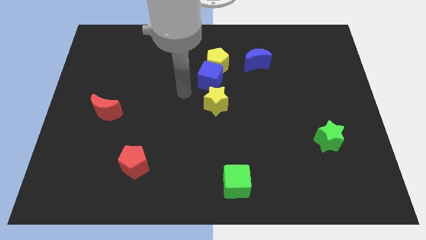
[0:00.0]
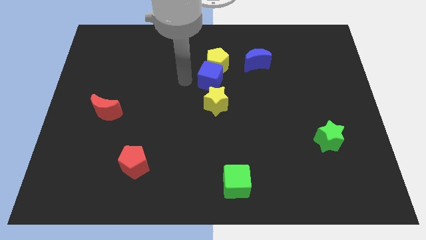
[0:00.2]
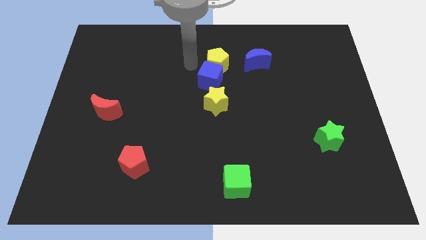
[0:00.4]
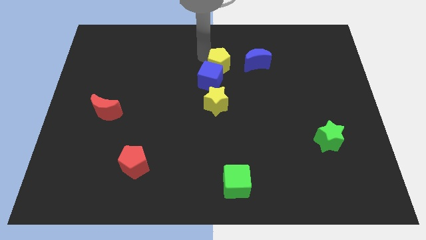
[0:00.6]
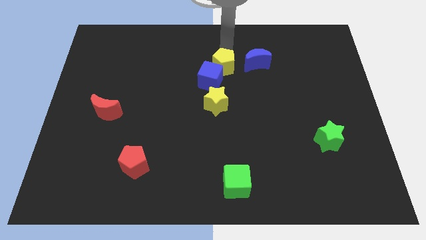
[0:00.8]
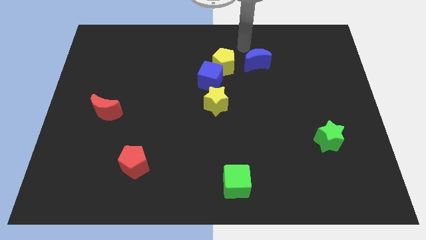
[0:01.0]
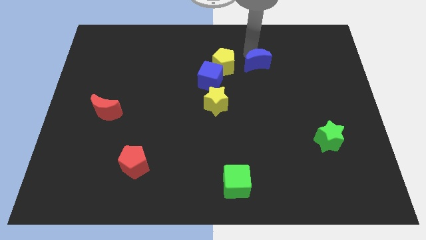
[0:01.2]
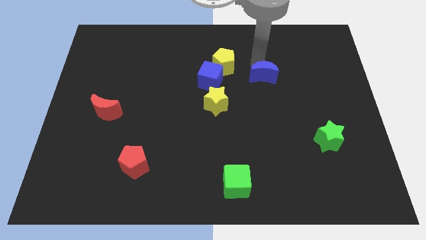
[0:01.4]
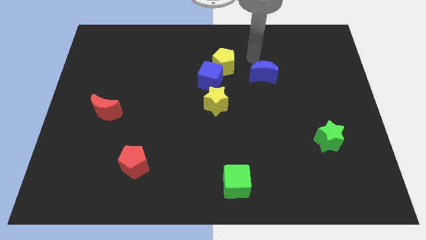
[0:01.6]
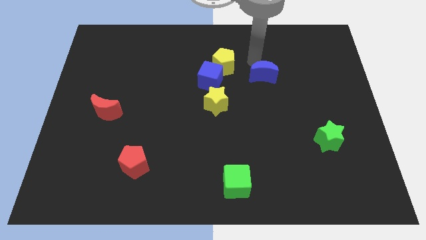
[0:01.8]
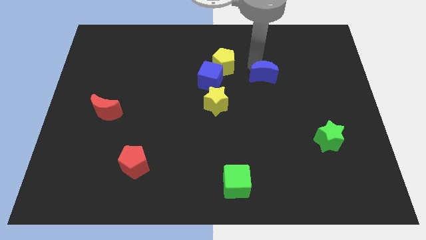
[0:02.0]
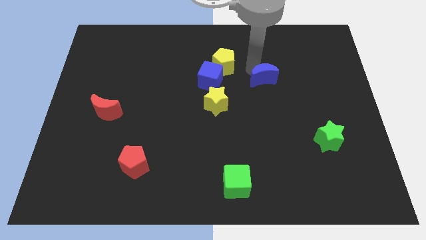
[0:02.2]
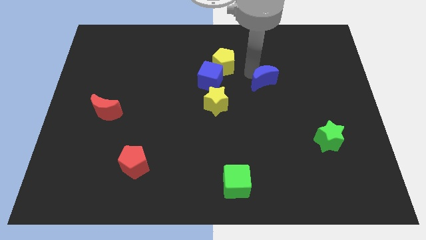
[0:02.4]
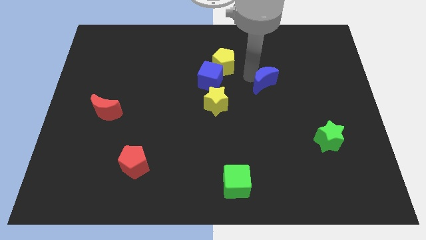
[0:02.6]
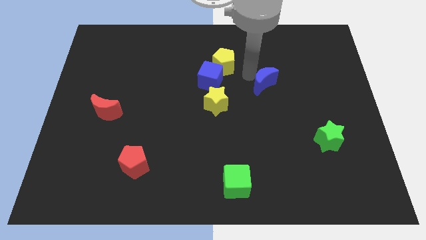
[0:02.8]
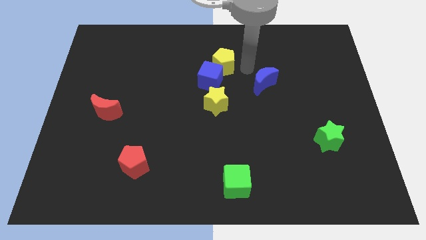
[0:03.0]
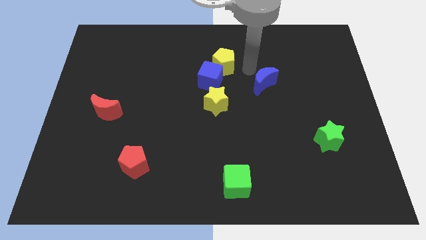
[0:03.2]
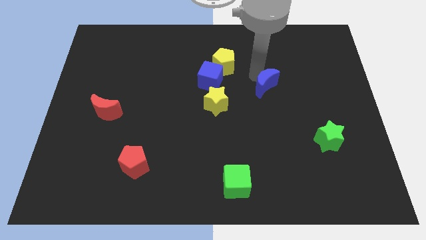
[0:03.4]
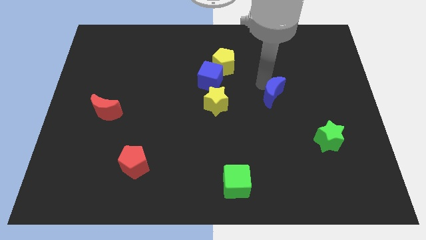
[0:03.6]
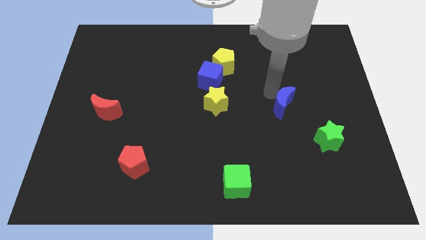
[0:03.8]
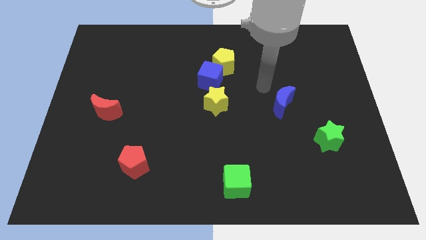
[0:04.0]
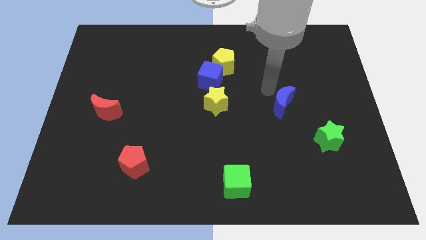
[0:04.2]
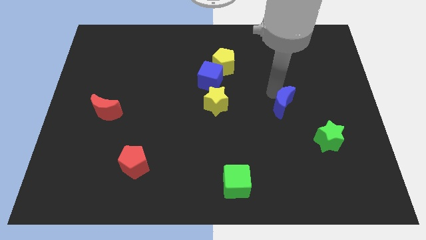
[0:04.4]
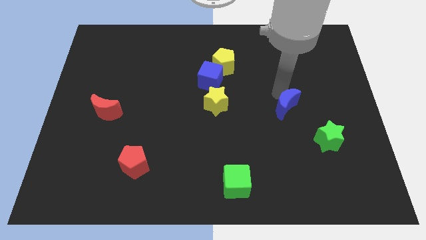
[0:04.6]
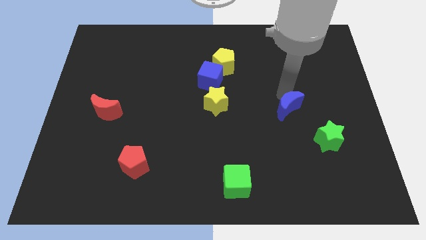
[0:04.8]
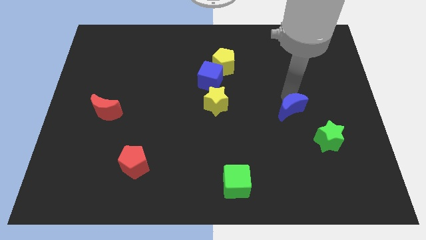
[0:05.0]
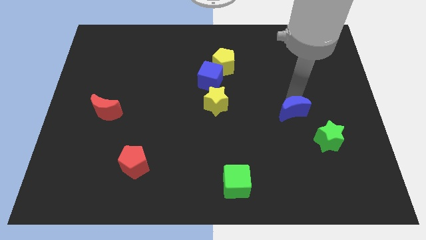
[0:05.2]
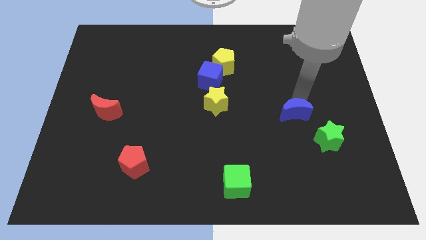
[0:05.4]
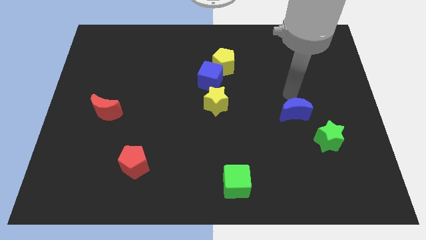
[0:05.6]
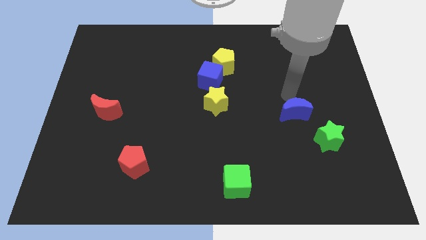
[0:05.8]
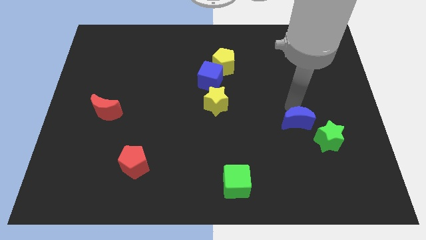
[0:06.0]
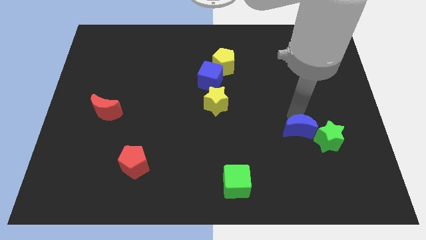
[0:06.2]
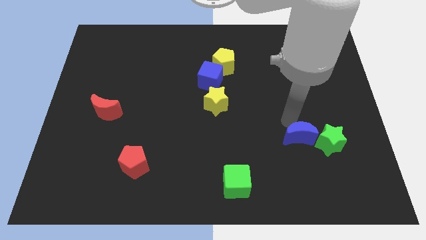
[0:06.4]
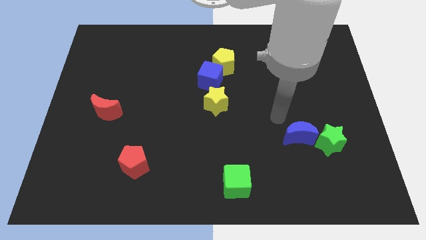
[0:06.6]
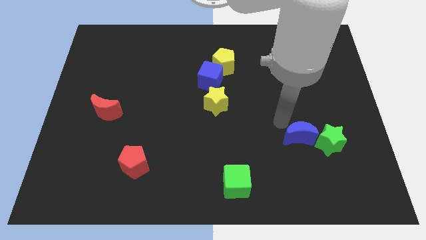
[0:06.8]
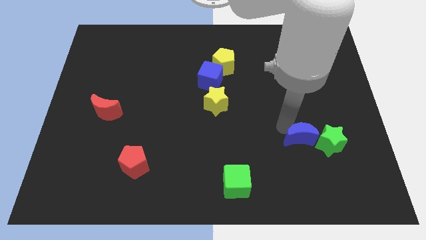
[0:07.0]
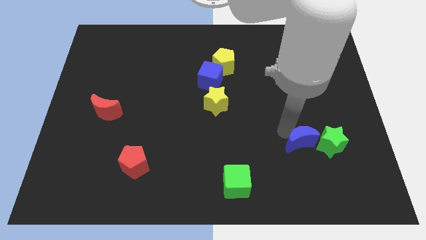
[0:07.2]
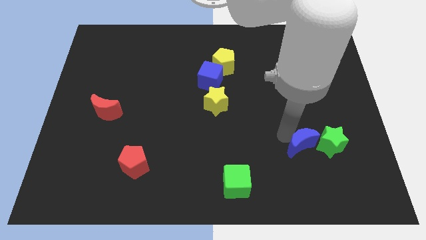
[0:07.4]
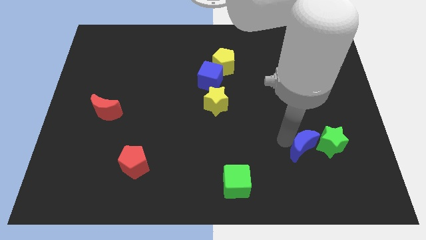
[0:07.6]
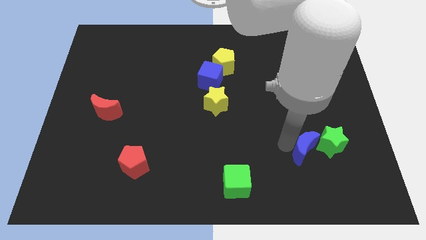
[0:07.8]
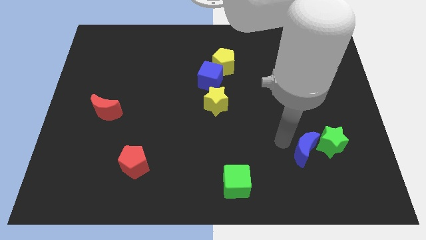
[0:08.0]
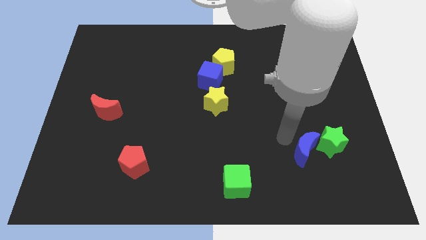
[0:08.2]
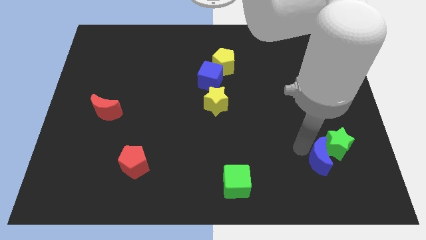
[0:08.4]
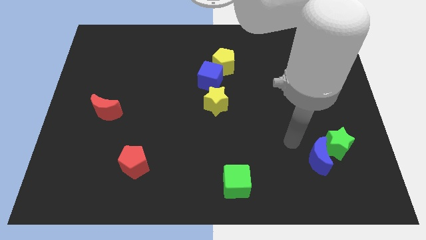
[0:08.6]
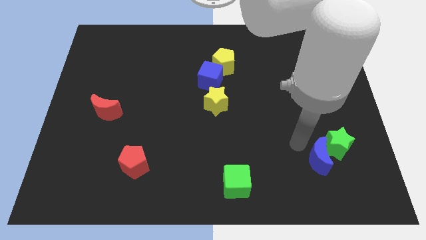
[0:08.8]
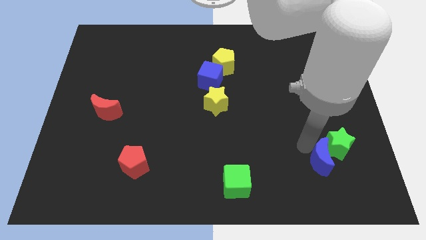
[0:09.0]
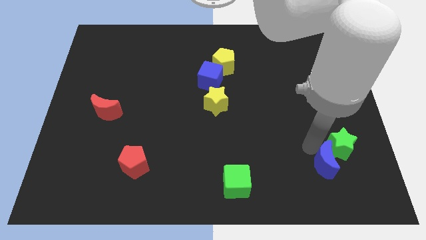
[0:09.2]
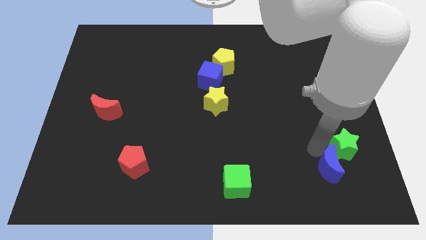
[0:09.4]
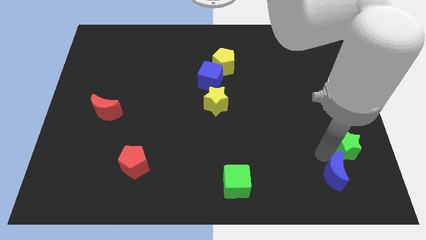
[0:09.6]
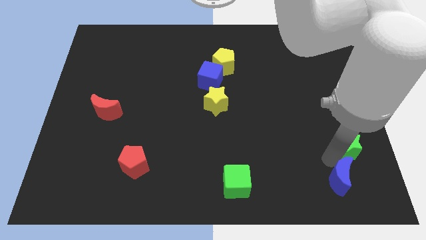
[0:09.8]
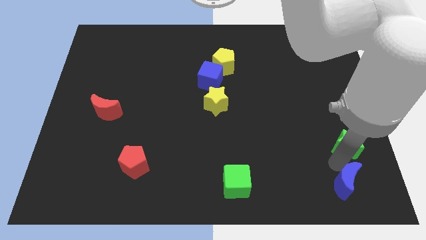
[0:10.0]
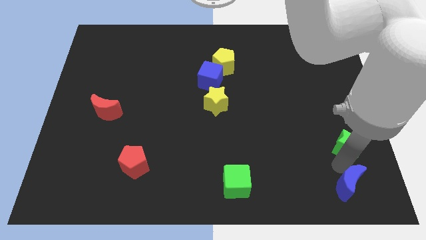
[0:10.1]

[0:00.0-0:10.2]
slide the blue moon to the bottom right of the board

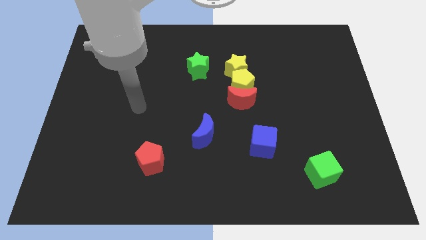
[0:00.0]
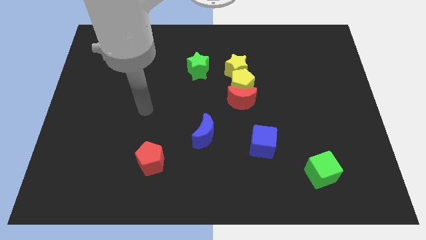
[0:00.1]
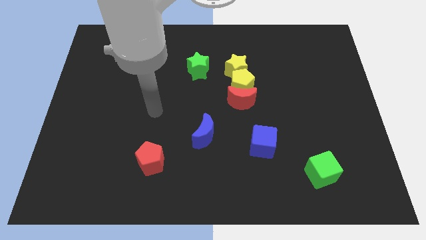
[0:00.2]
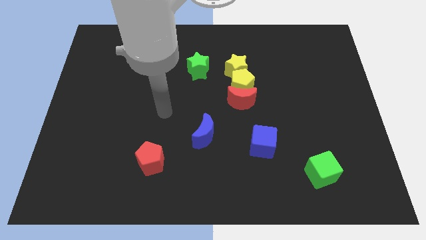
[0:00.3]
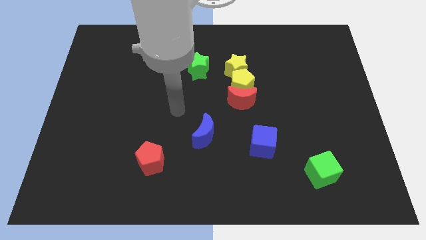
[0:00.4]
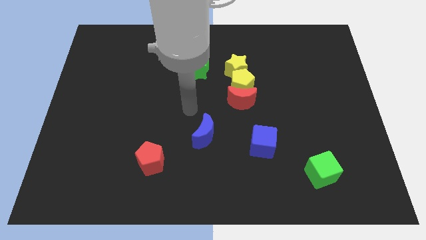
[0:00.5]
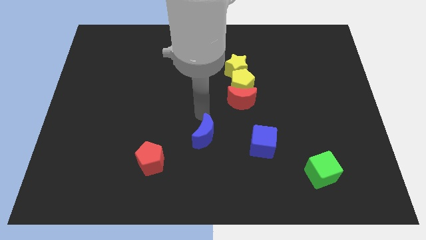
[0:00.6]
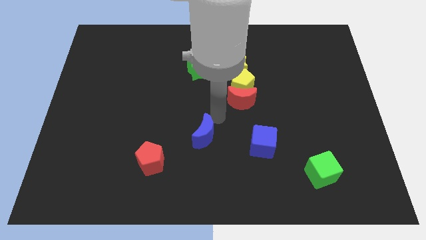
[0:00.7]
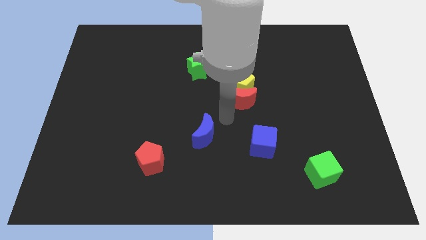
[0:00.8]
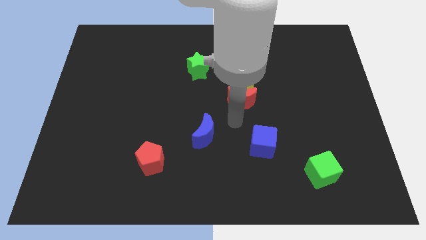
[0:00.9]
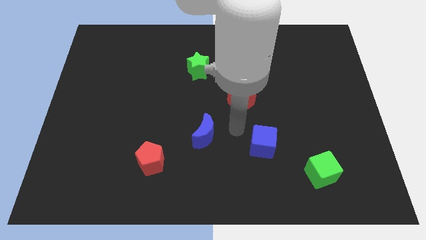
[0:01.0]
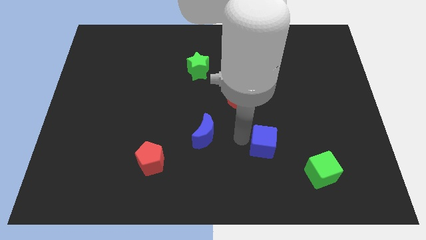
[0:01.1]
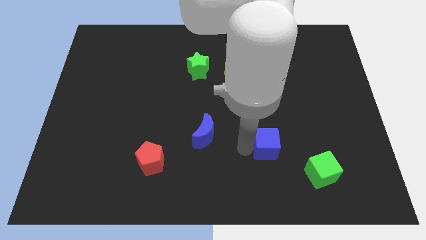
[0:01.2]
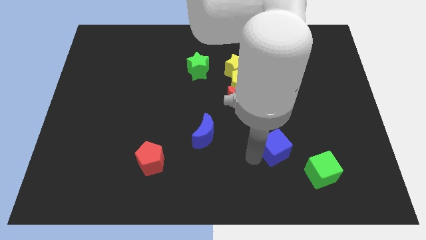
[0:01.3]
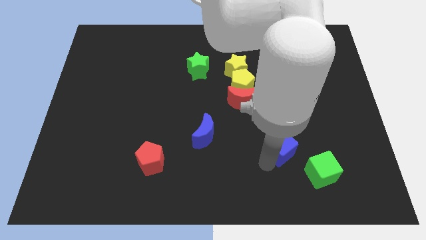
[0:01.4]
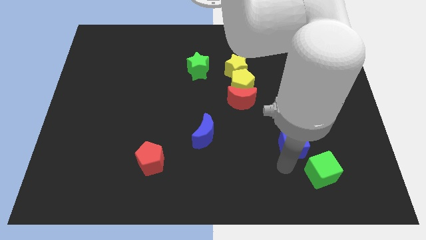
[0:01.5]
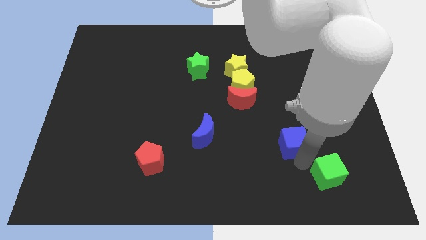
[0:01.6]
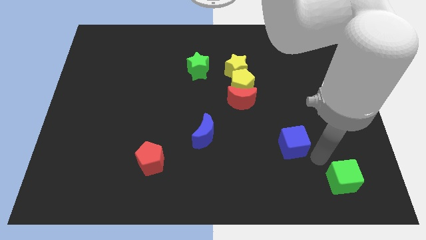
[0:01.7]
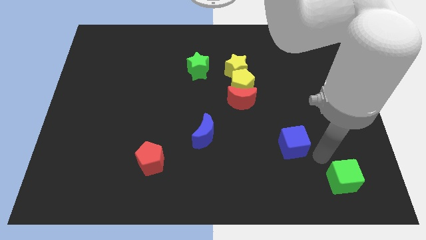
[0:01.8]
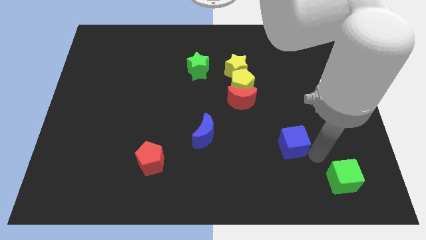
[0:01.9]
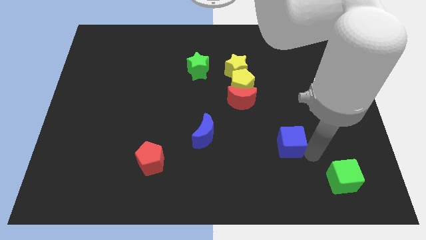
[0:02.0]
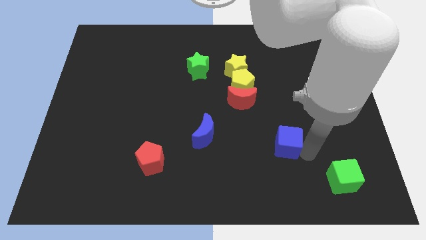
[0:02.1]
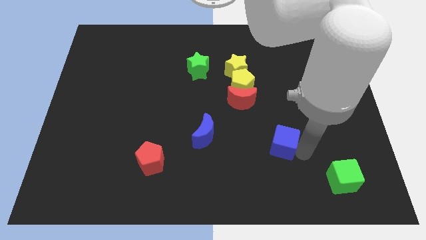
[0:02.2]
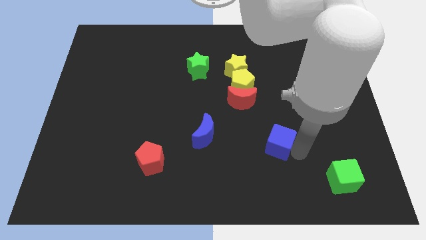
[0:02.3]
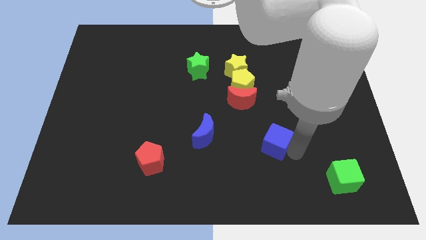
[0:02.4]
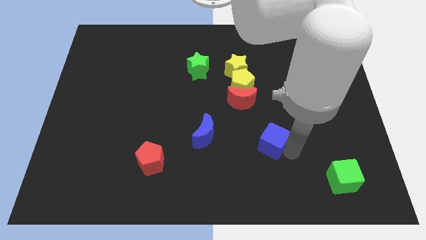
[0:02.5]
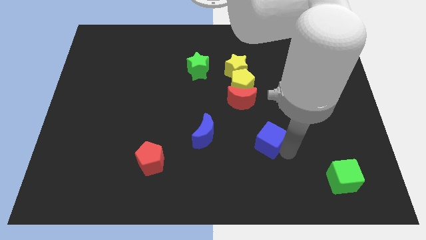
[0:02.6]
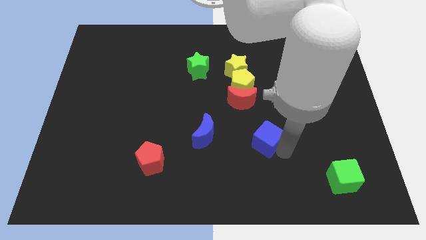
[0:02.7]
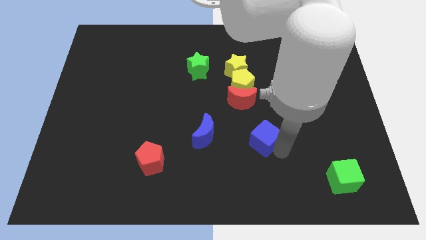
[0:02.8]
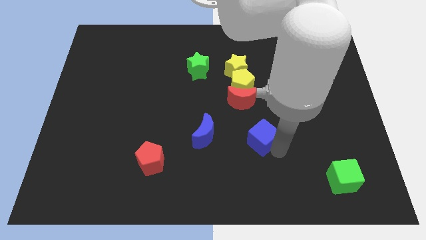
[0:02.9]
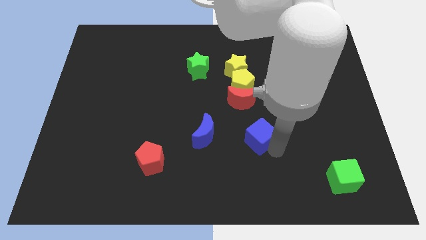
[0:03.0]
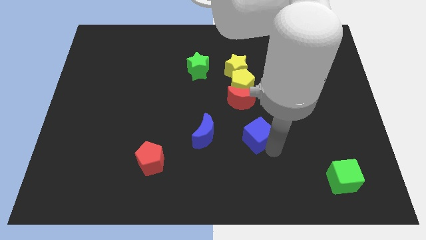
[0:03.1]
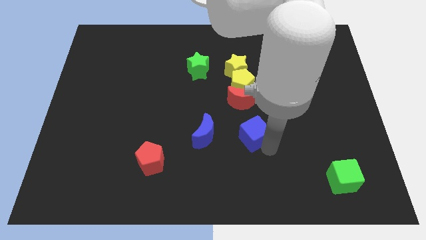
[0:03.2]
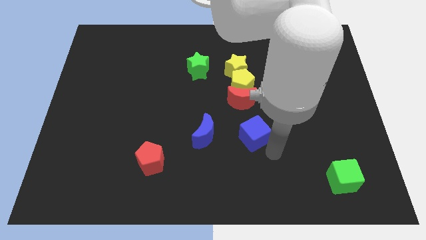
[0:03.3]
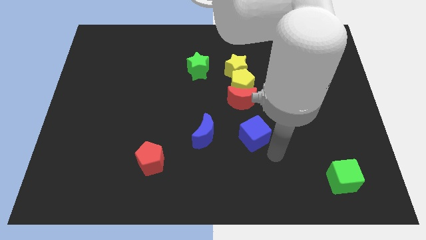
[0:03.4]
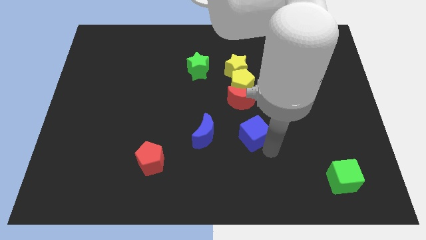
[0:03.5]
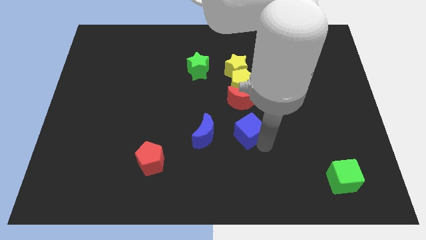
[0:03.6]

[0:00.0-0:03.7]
slide the blue cube to the middle of the board
